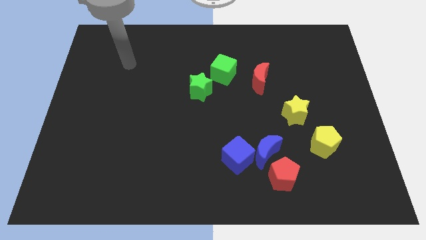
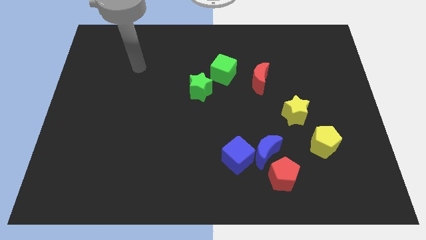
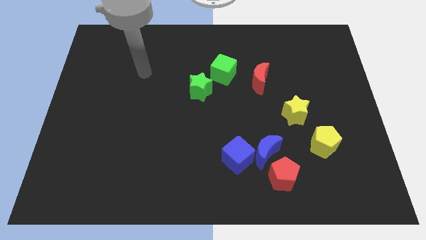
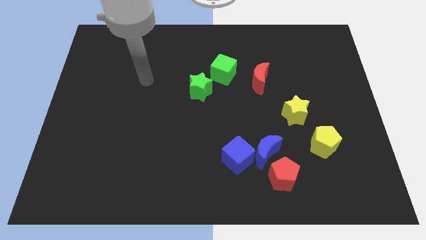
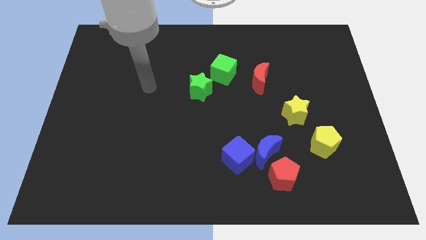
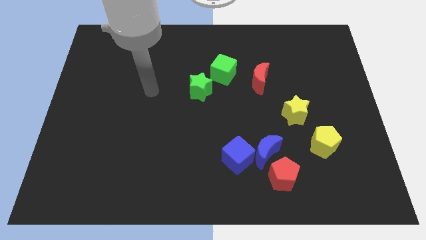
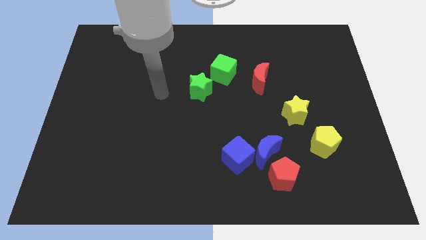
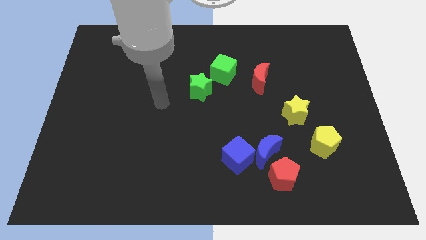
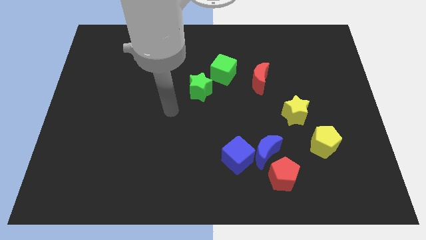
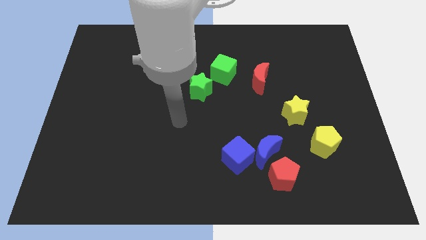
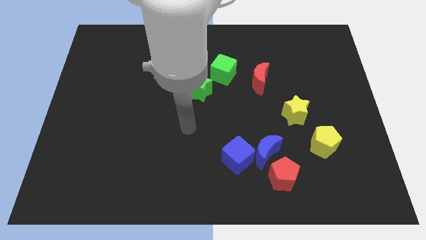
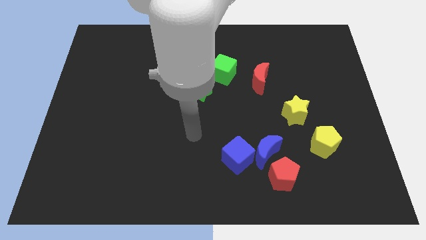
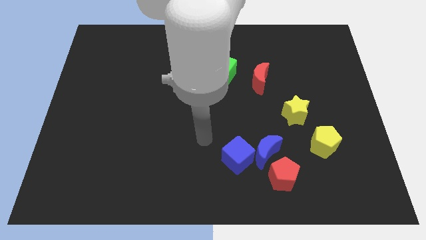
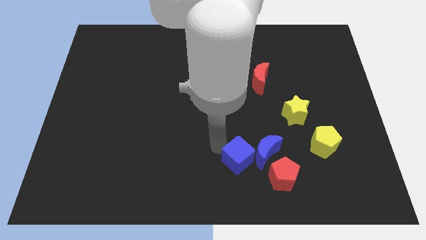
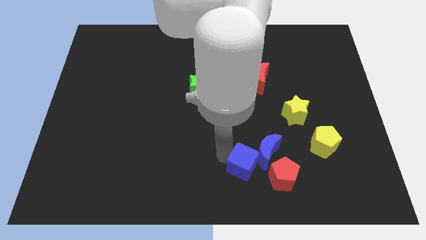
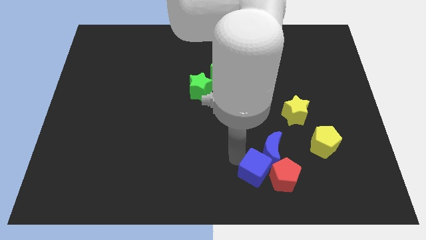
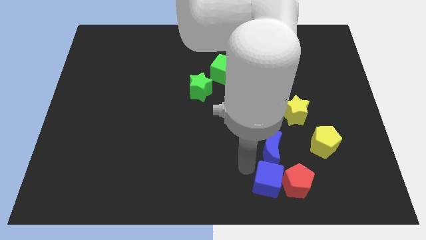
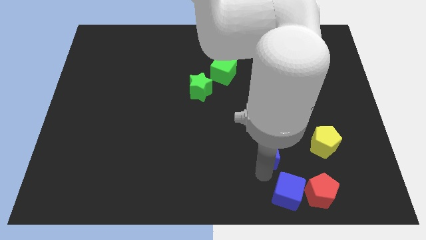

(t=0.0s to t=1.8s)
move the blue moon away from the blue cube and red pentagon

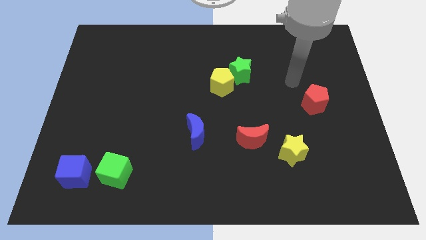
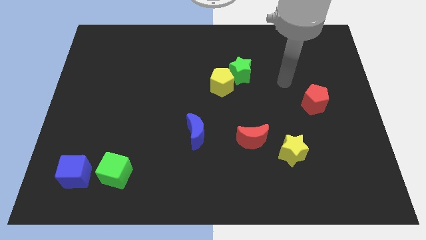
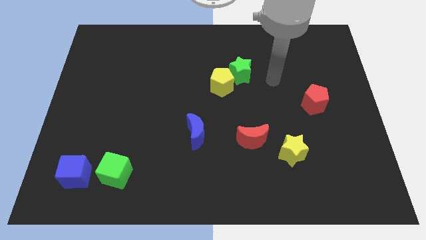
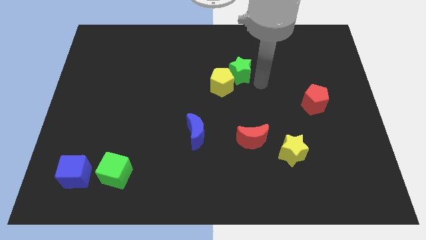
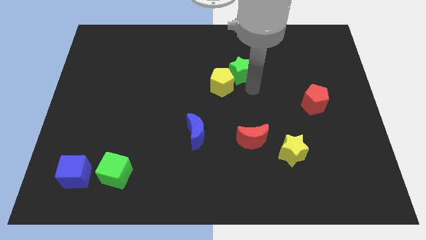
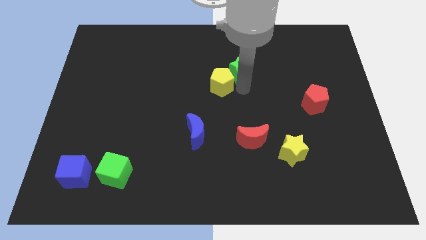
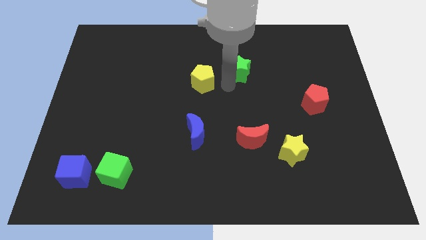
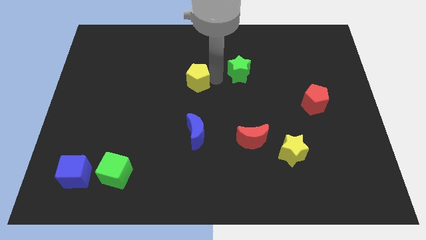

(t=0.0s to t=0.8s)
separate the green star from the yellow pentagon

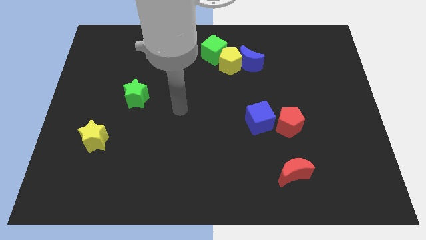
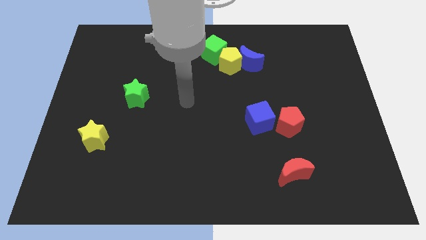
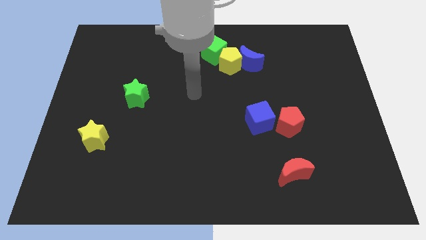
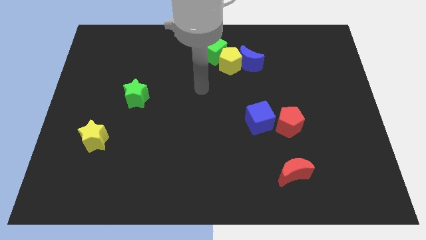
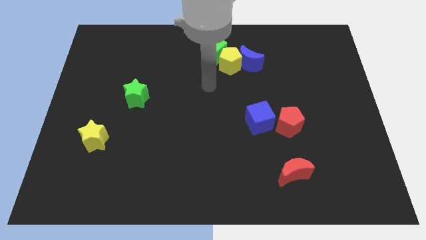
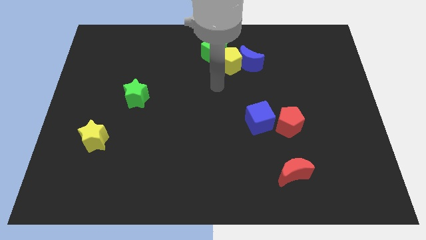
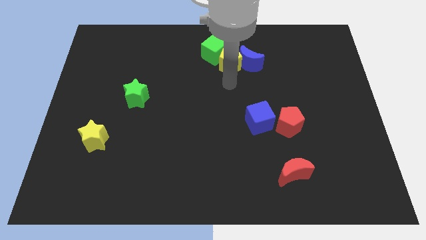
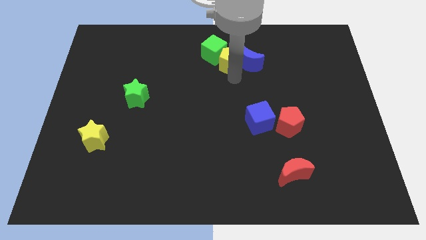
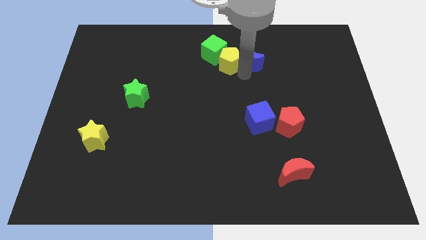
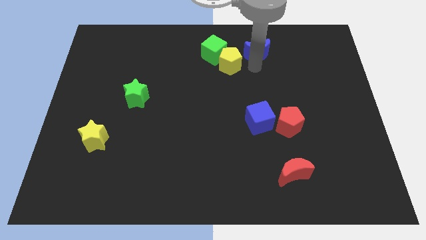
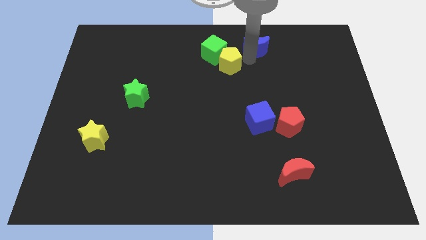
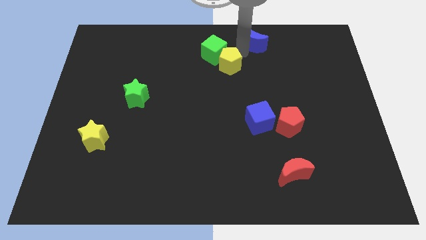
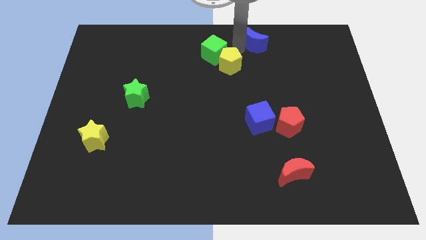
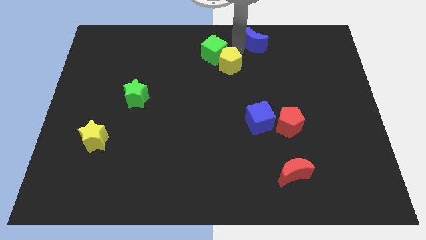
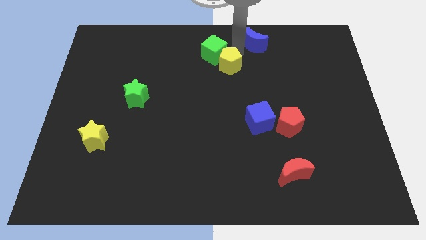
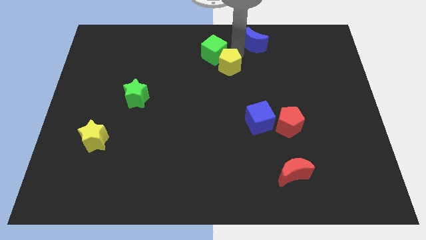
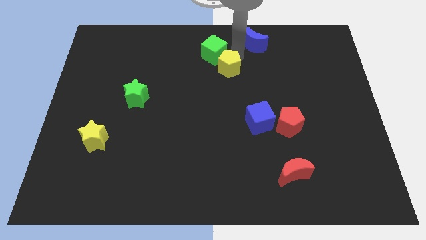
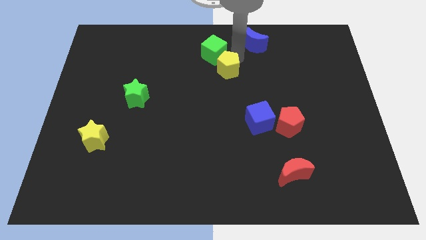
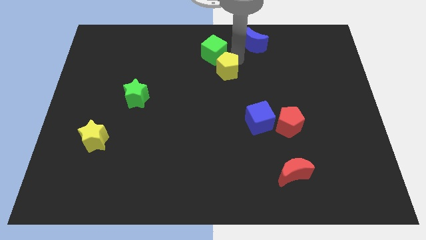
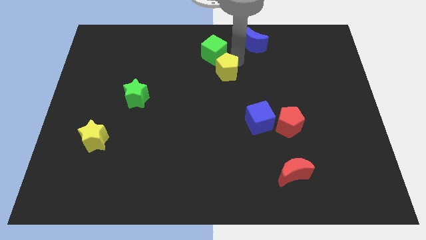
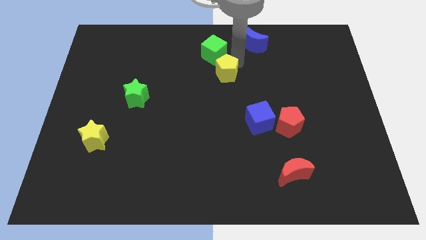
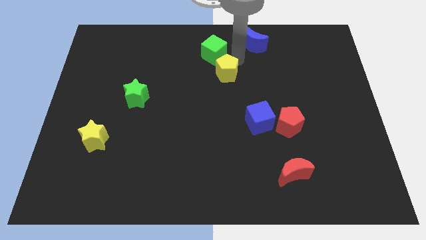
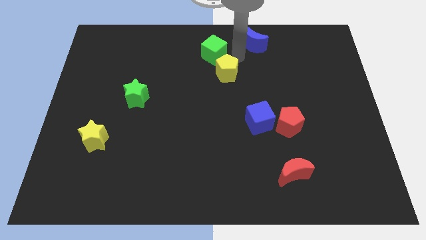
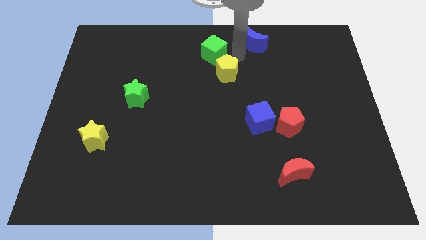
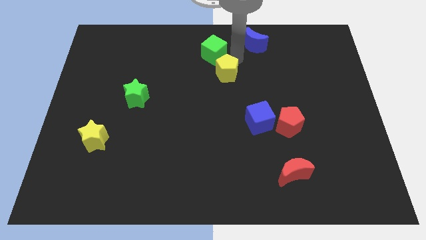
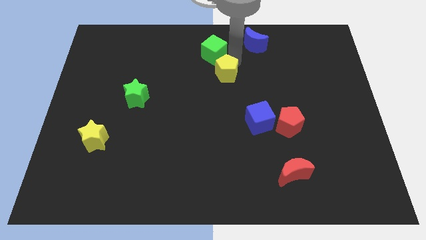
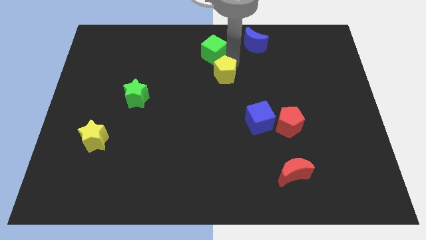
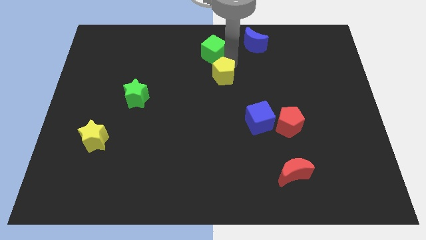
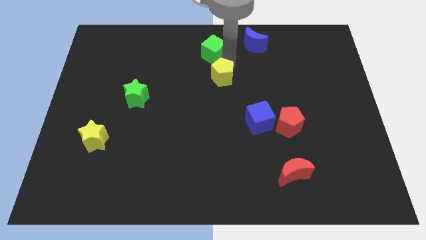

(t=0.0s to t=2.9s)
separate the yellow pentagon from the blue moon and green cube

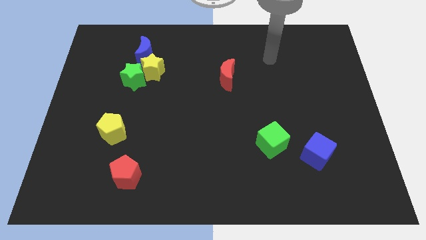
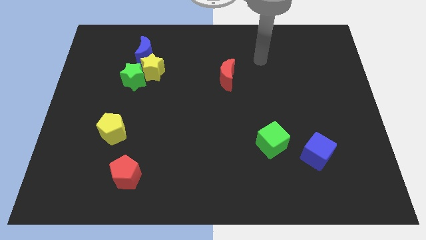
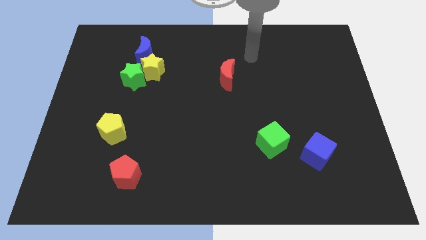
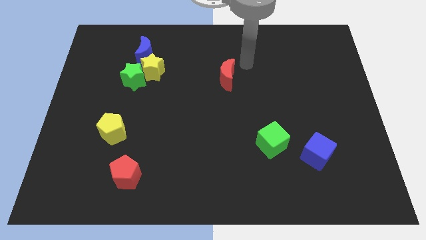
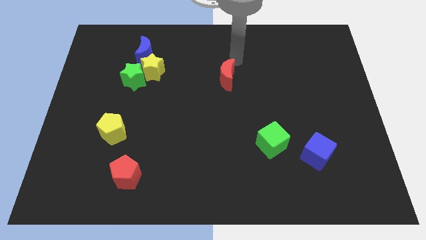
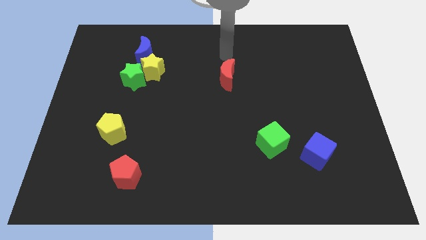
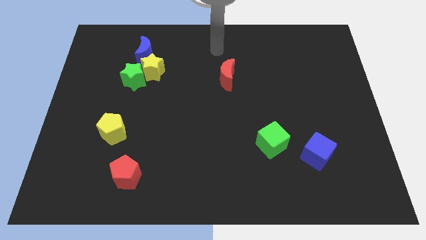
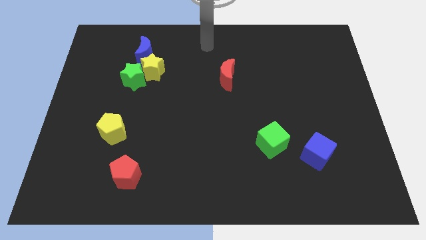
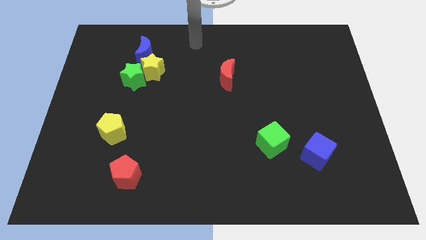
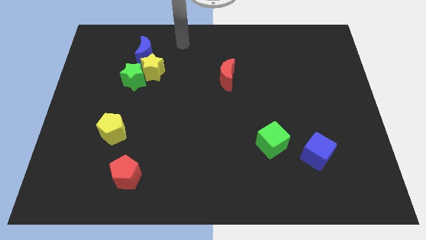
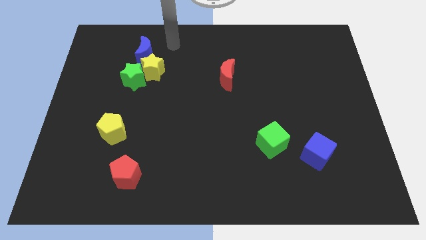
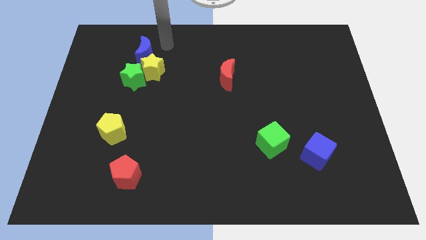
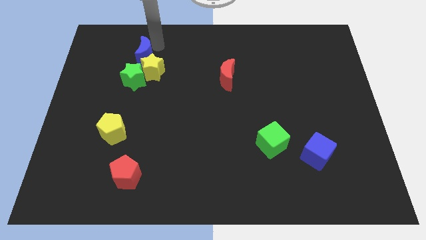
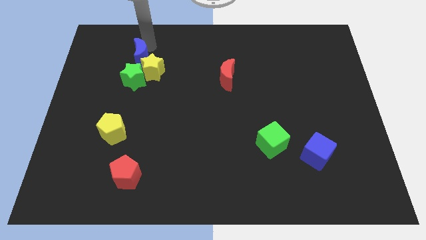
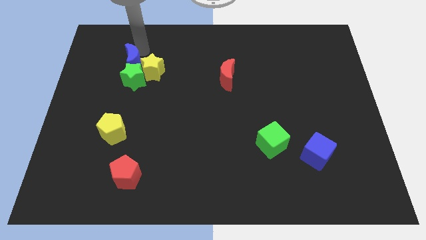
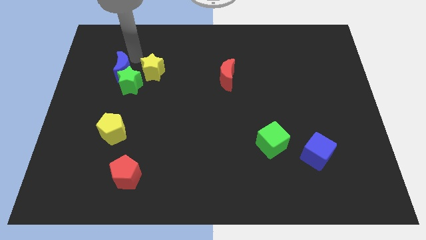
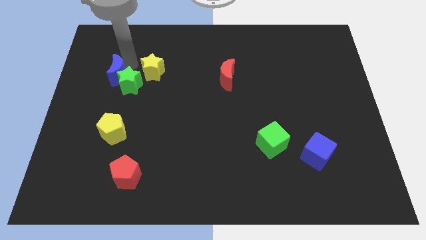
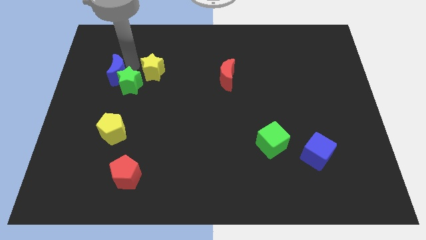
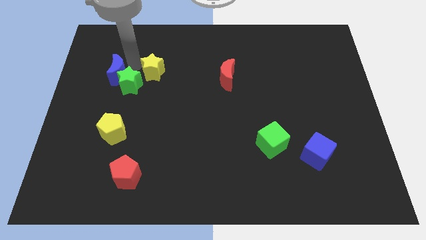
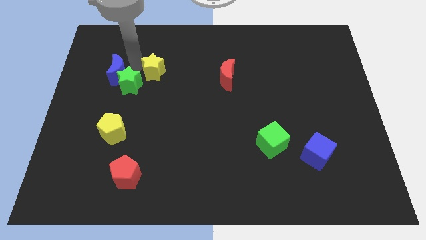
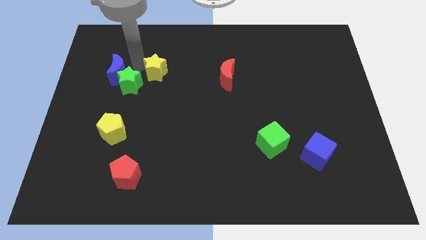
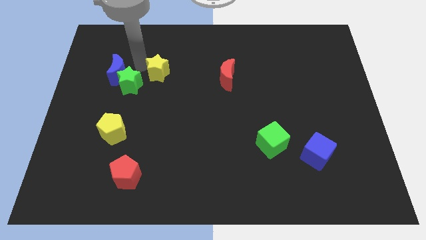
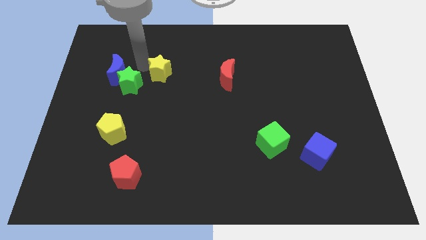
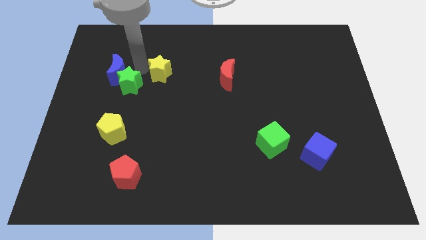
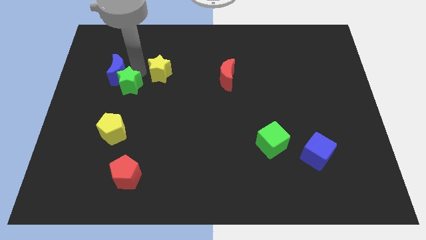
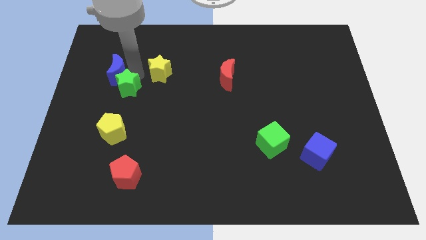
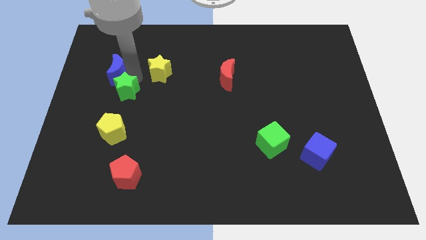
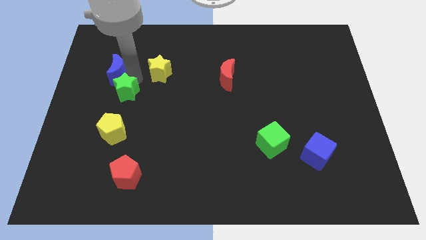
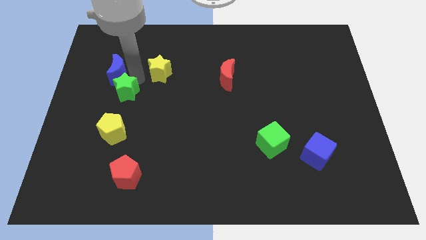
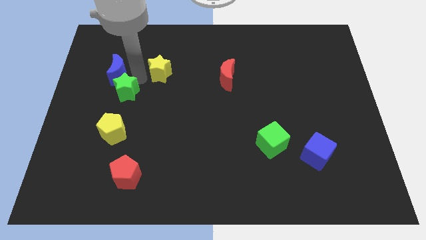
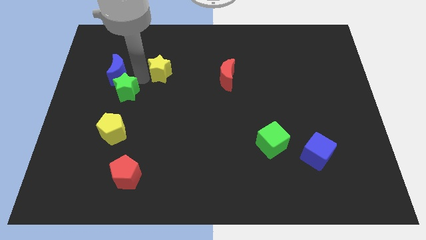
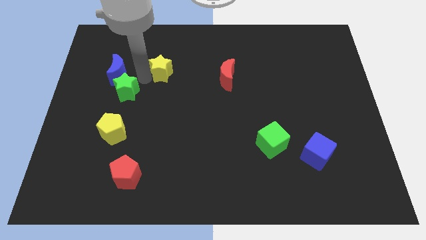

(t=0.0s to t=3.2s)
move the yellow star away from the green star and blue moon

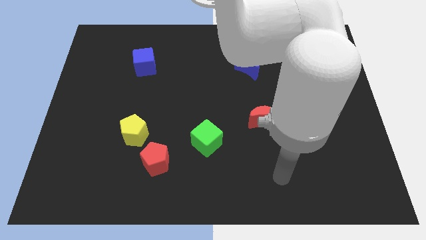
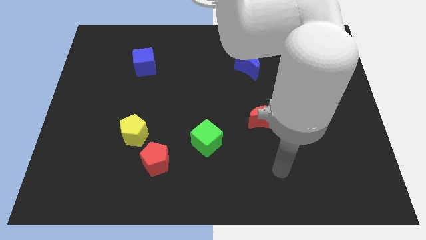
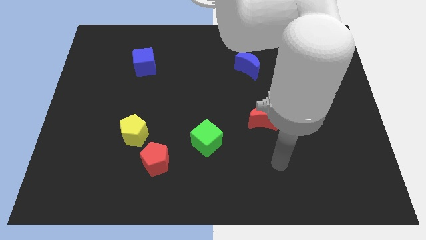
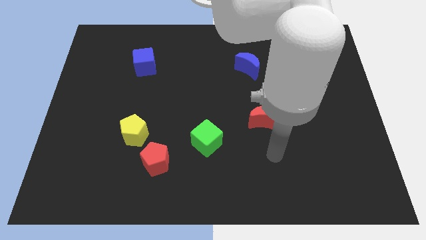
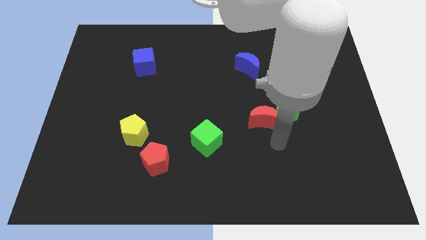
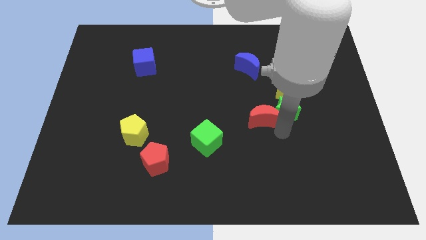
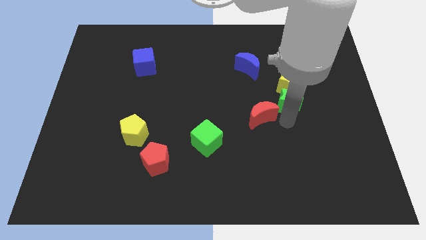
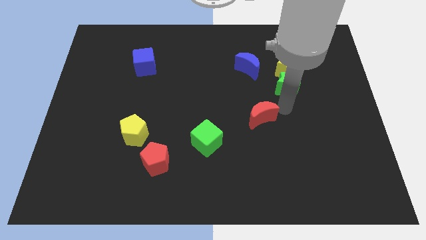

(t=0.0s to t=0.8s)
pull the red moon apart from the green star

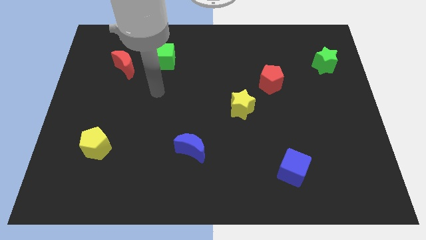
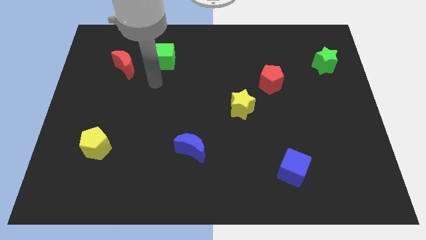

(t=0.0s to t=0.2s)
move the red moon away from the green cube
